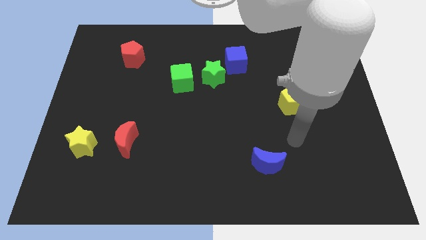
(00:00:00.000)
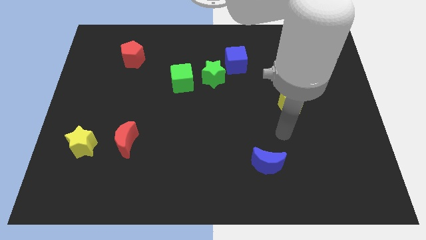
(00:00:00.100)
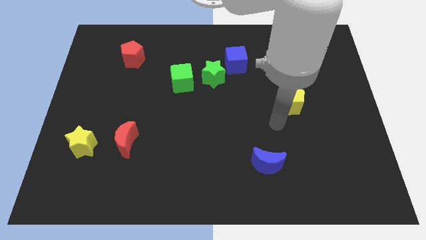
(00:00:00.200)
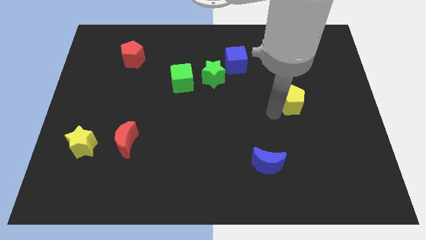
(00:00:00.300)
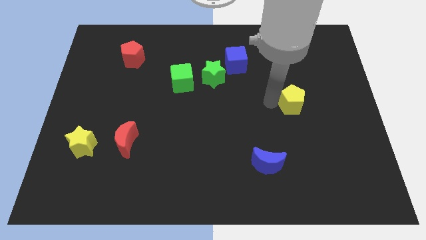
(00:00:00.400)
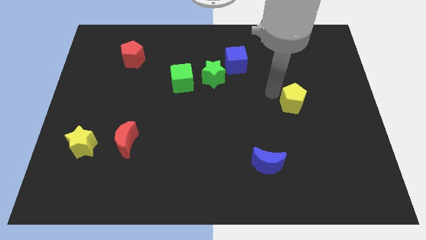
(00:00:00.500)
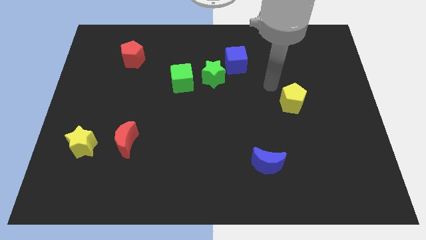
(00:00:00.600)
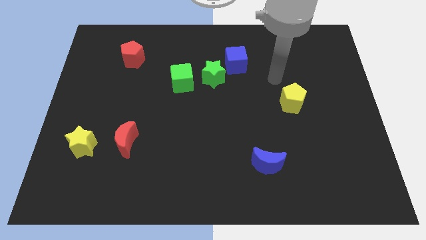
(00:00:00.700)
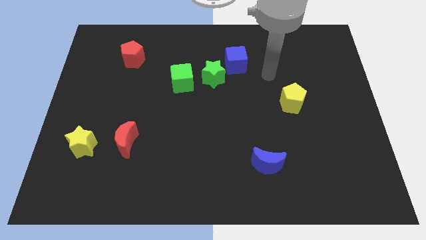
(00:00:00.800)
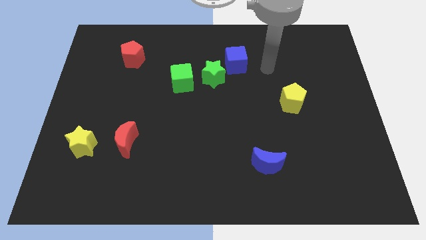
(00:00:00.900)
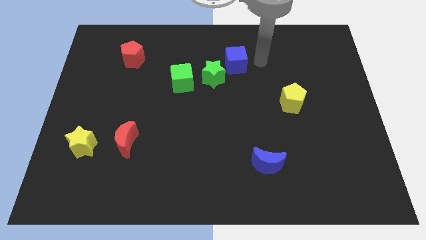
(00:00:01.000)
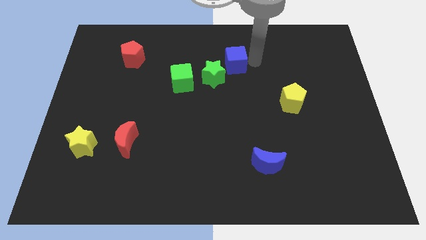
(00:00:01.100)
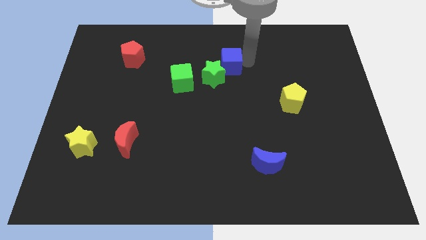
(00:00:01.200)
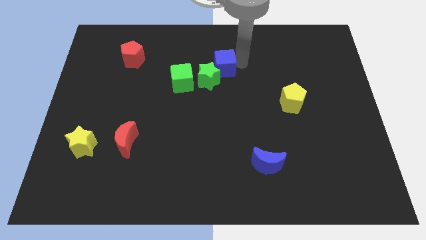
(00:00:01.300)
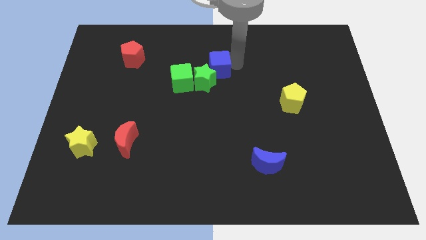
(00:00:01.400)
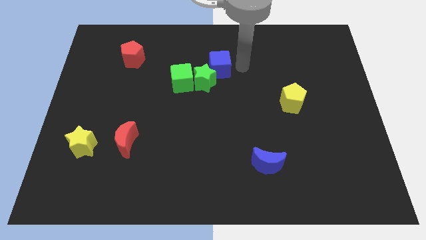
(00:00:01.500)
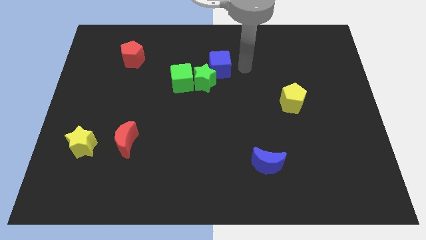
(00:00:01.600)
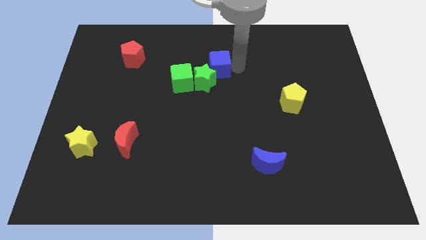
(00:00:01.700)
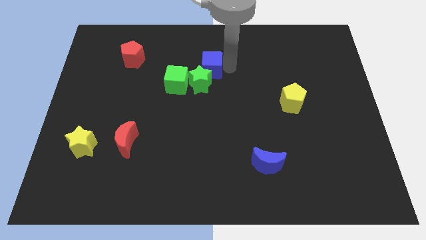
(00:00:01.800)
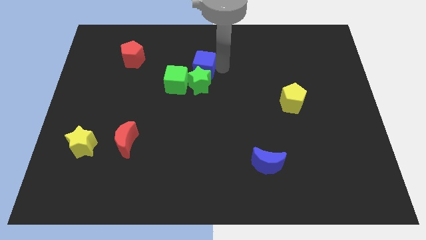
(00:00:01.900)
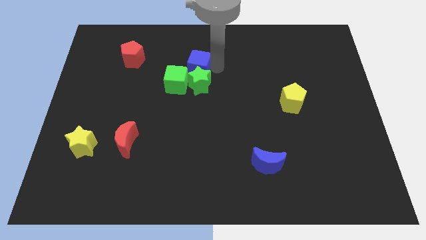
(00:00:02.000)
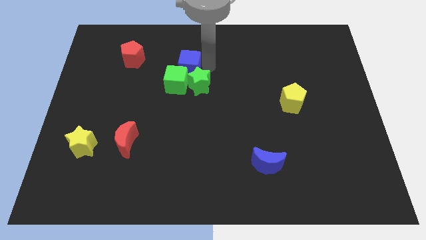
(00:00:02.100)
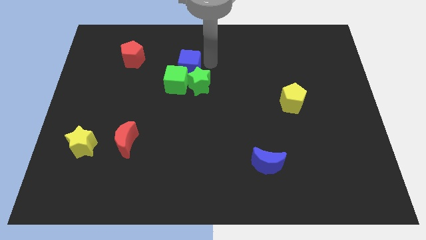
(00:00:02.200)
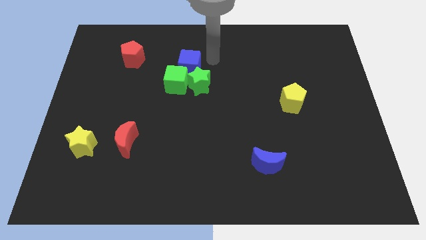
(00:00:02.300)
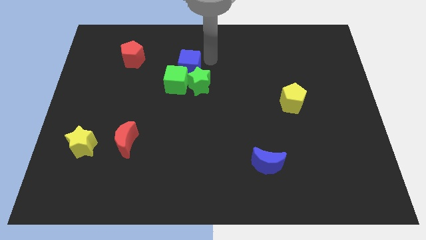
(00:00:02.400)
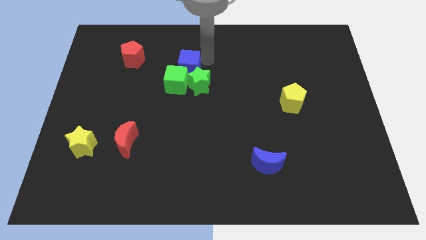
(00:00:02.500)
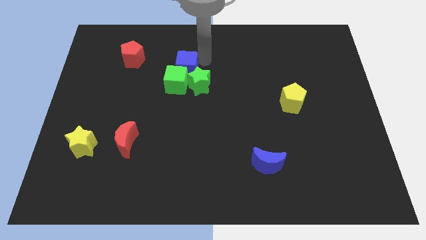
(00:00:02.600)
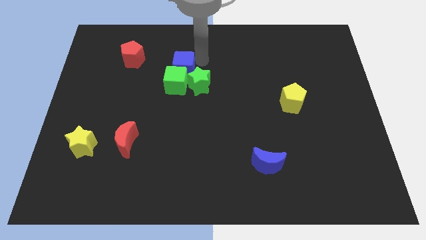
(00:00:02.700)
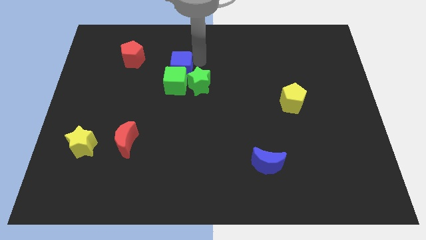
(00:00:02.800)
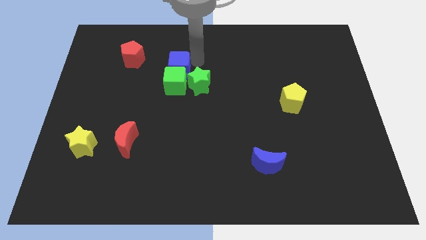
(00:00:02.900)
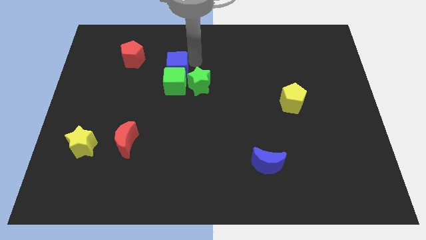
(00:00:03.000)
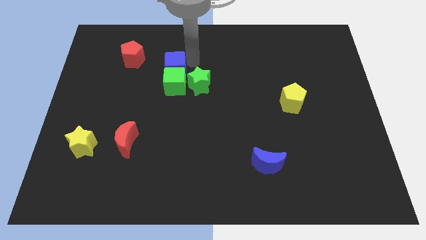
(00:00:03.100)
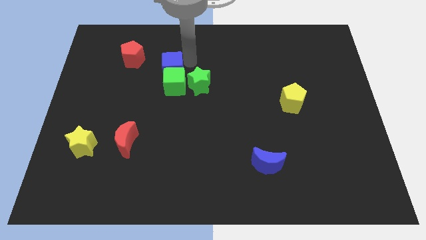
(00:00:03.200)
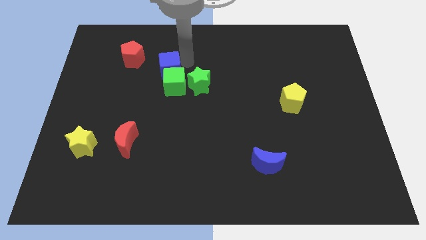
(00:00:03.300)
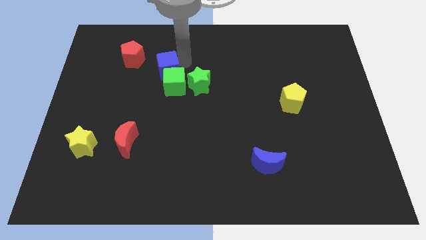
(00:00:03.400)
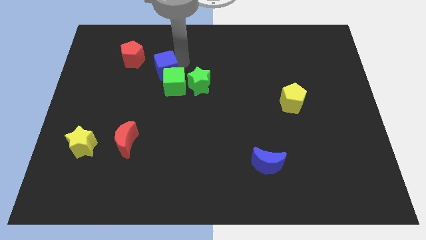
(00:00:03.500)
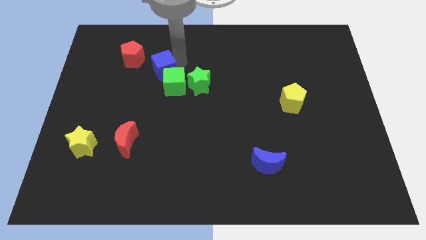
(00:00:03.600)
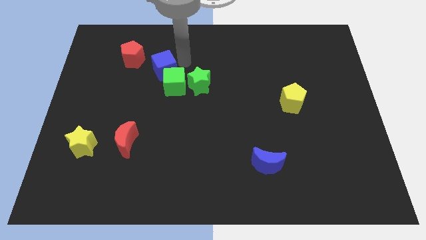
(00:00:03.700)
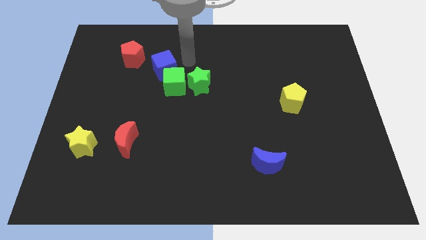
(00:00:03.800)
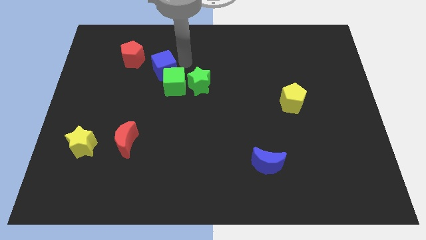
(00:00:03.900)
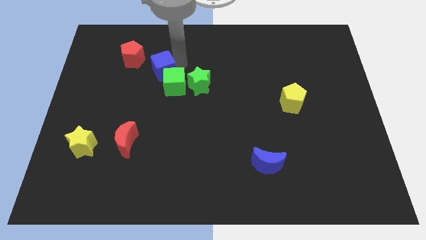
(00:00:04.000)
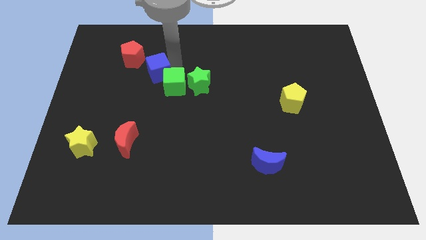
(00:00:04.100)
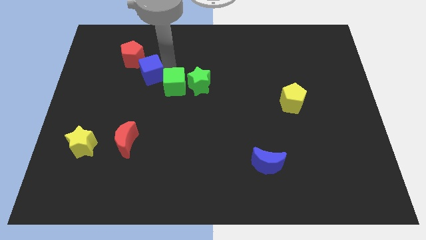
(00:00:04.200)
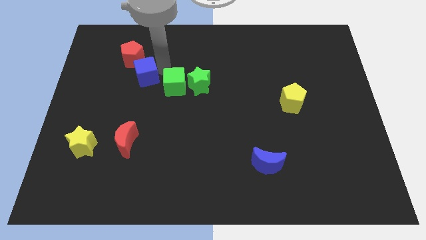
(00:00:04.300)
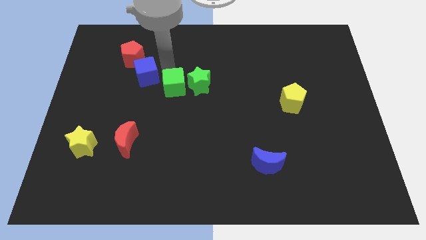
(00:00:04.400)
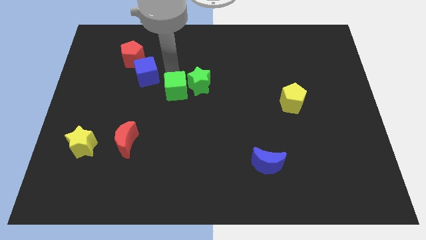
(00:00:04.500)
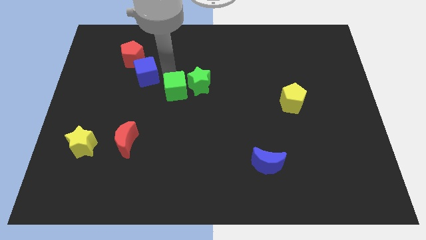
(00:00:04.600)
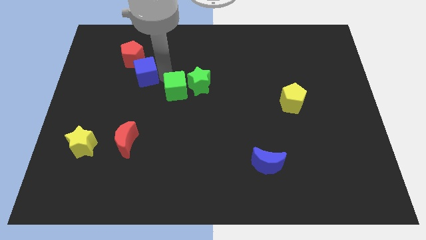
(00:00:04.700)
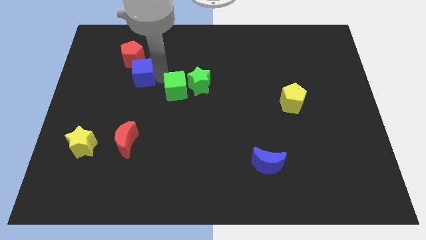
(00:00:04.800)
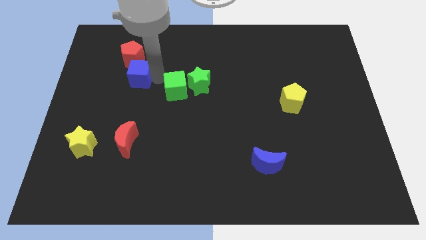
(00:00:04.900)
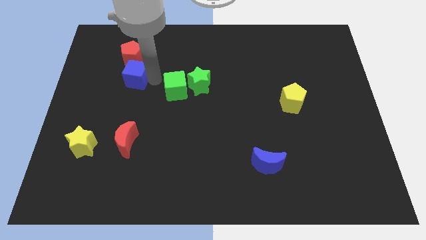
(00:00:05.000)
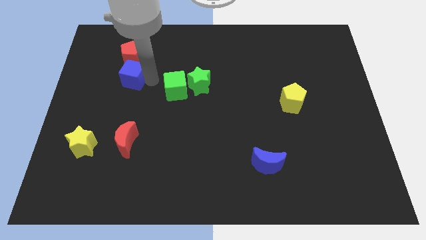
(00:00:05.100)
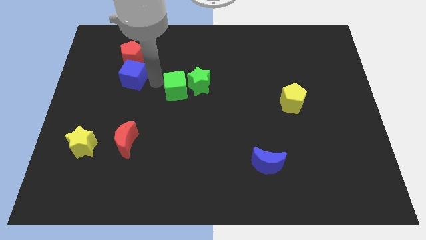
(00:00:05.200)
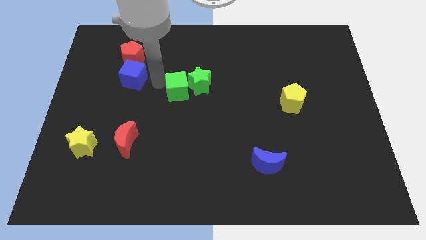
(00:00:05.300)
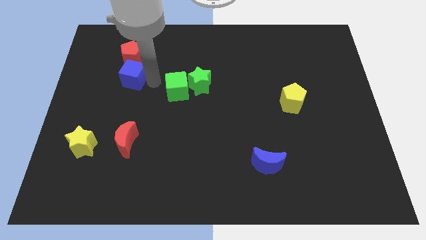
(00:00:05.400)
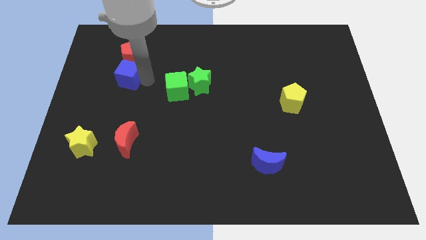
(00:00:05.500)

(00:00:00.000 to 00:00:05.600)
slide the blue cube to the bottom left side of the red pentagon
